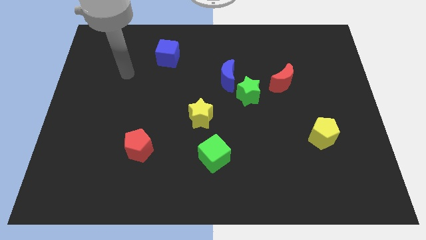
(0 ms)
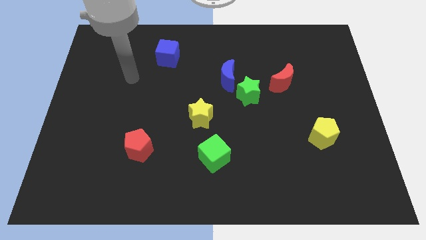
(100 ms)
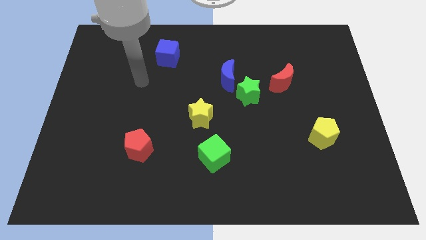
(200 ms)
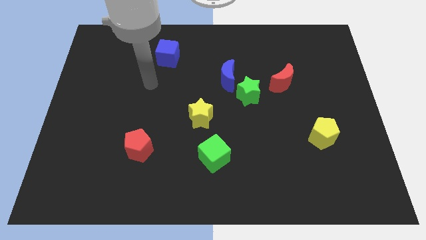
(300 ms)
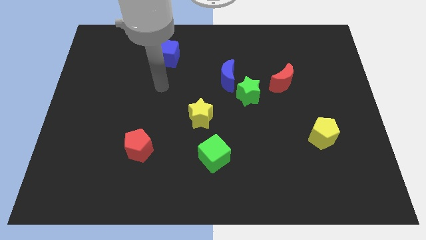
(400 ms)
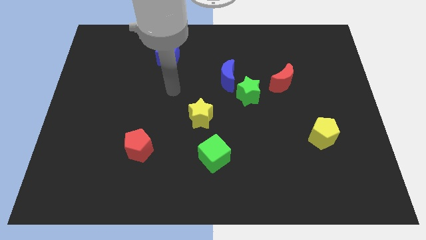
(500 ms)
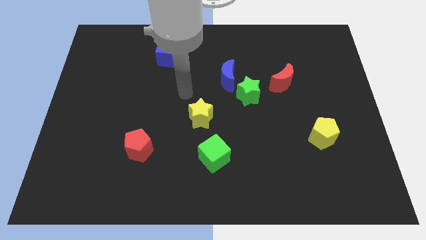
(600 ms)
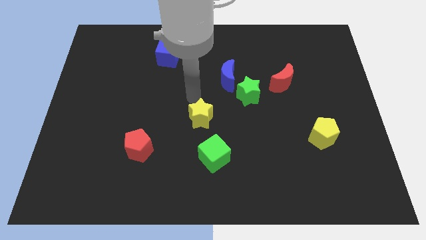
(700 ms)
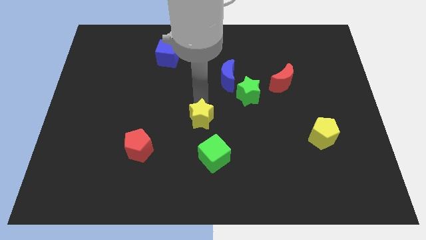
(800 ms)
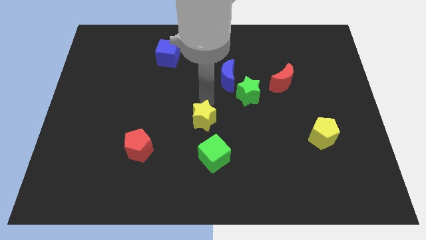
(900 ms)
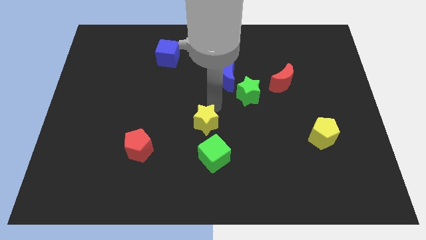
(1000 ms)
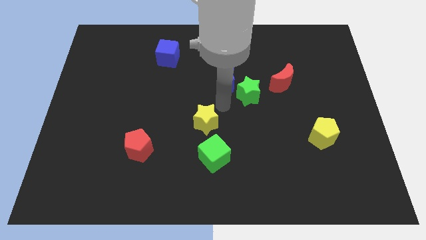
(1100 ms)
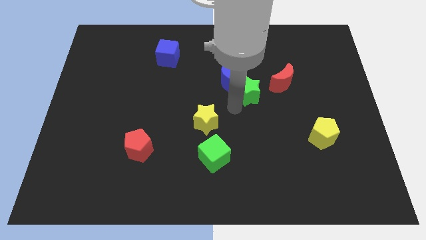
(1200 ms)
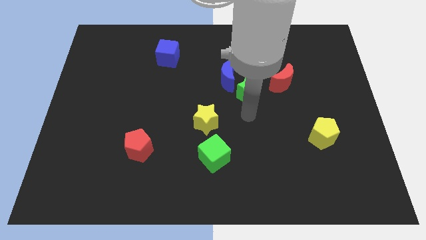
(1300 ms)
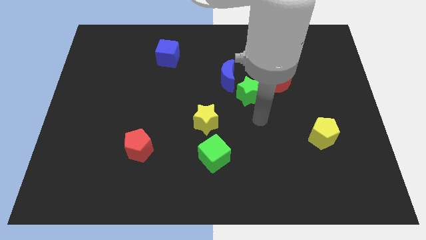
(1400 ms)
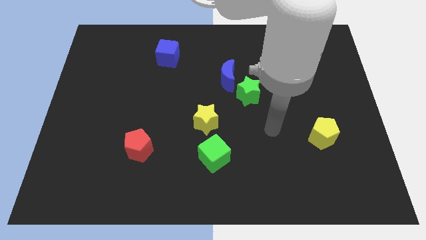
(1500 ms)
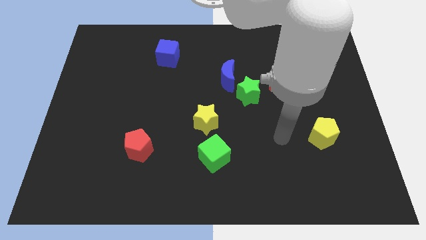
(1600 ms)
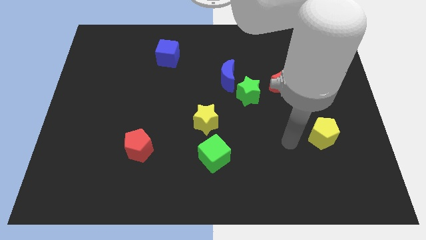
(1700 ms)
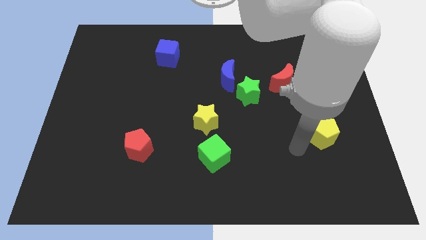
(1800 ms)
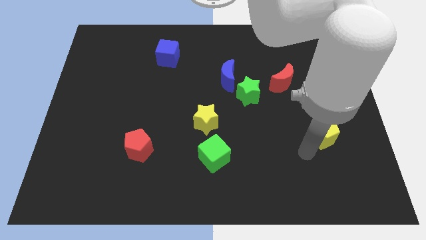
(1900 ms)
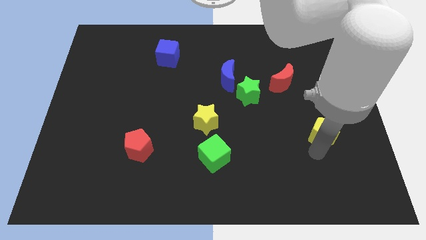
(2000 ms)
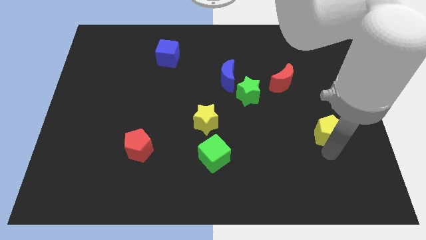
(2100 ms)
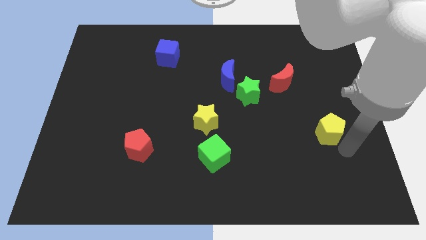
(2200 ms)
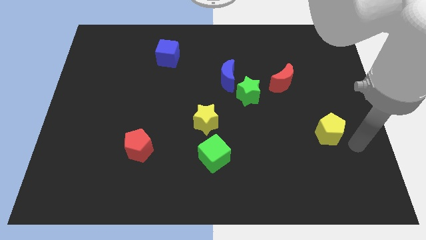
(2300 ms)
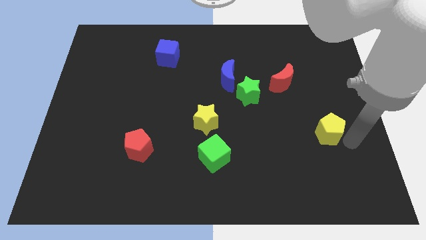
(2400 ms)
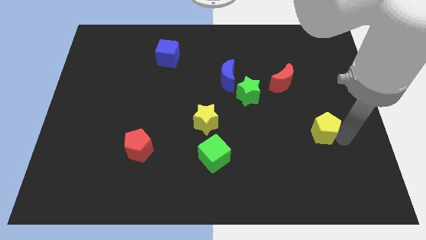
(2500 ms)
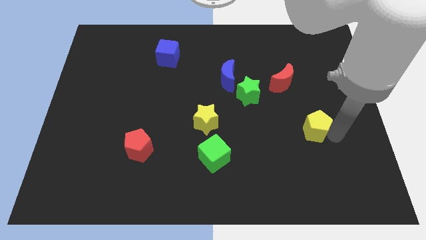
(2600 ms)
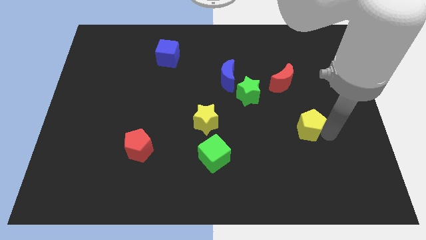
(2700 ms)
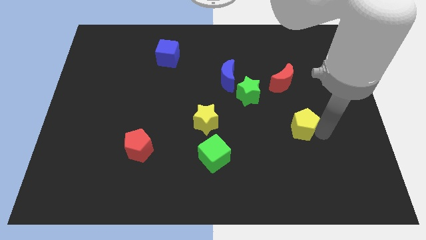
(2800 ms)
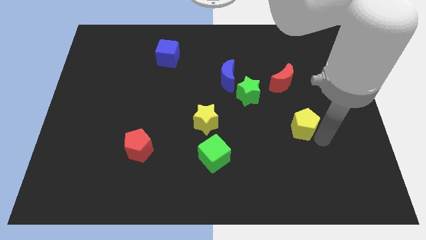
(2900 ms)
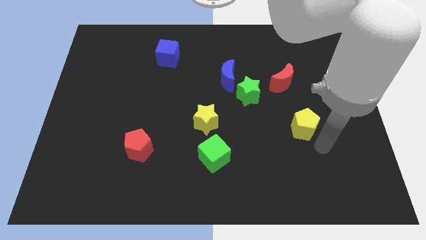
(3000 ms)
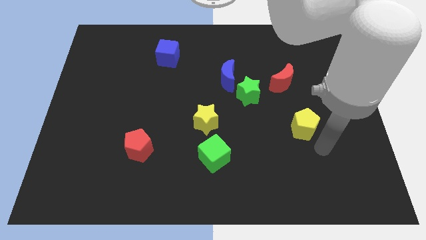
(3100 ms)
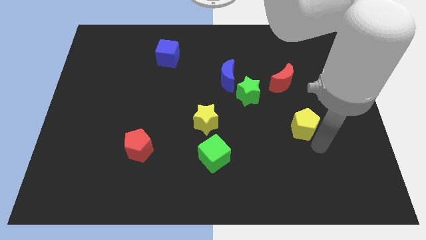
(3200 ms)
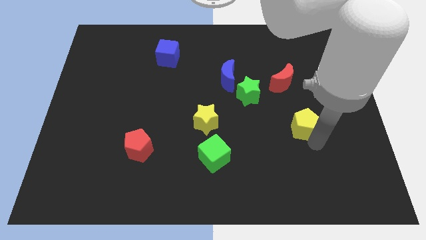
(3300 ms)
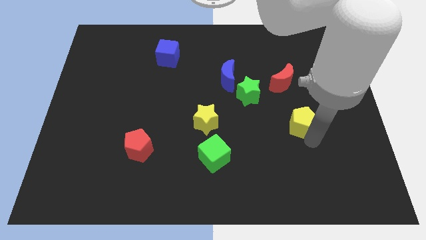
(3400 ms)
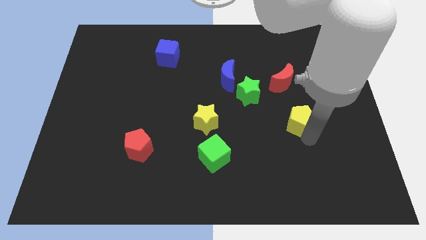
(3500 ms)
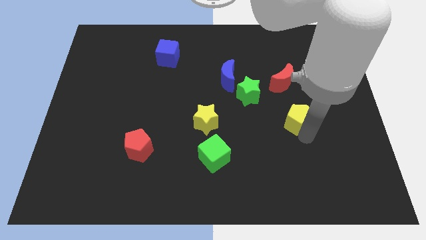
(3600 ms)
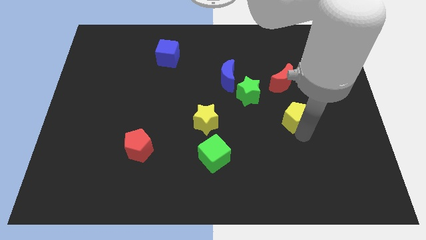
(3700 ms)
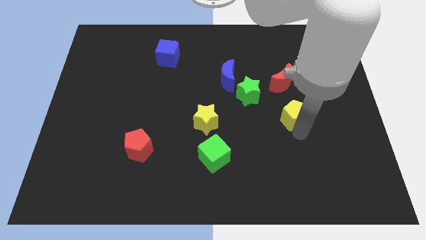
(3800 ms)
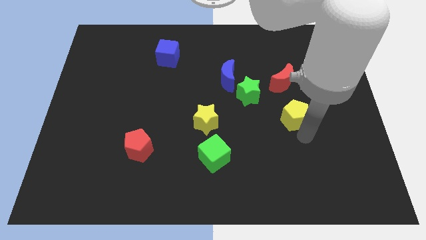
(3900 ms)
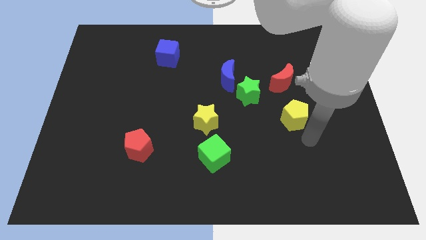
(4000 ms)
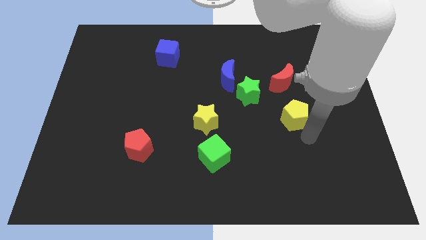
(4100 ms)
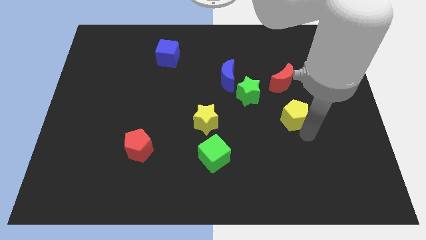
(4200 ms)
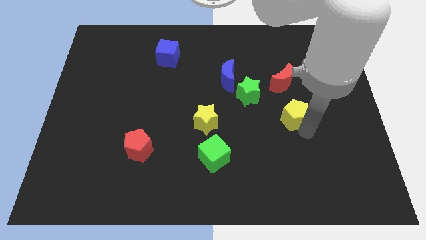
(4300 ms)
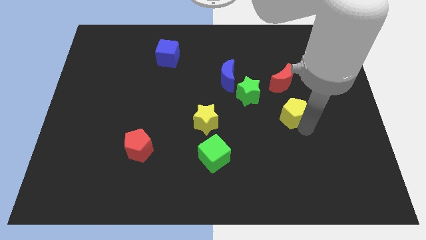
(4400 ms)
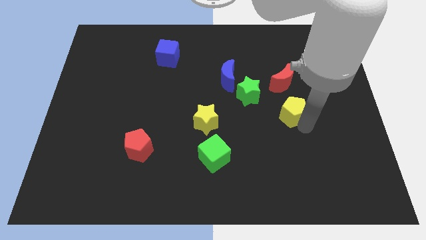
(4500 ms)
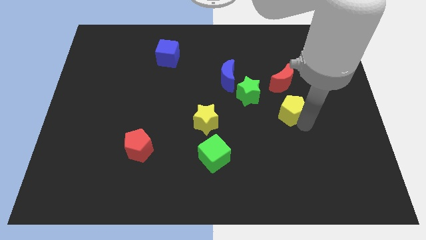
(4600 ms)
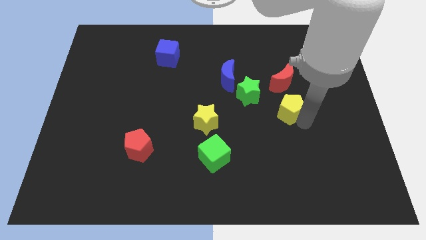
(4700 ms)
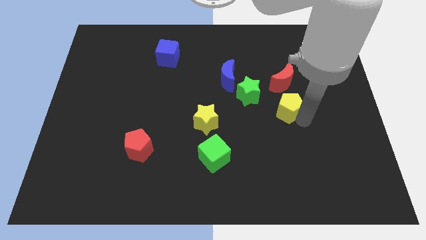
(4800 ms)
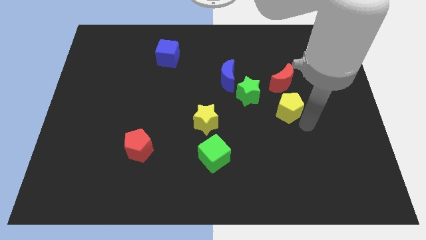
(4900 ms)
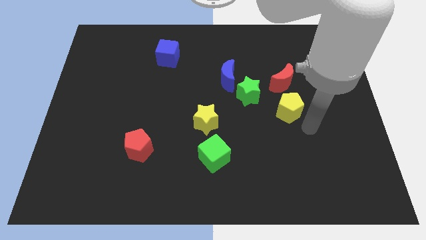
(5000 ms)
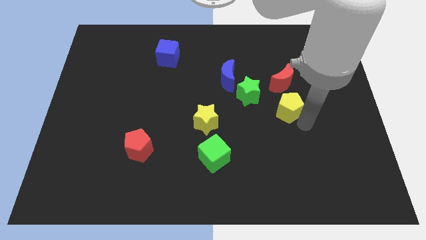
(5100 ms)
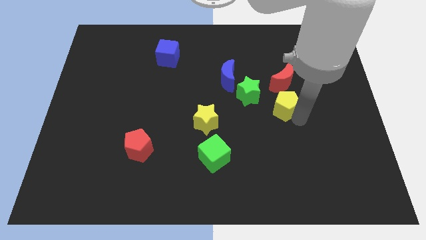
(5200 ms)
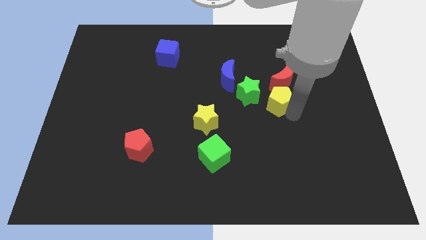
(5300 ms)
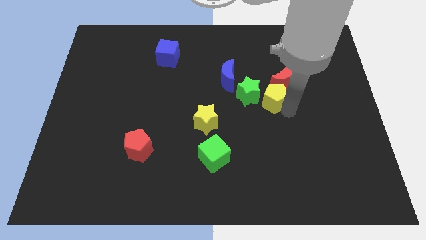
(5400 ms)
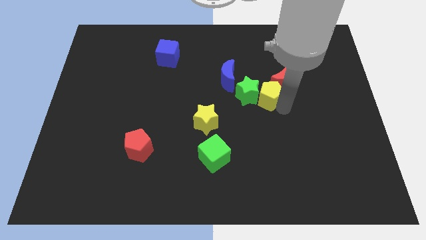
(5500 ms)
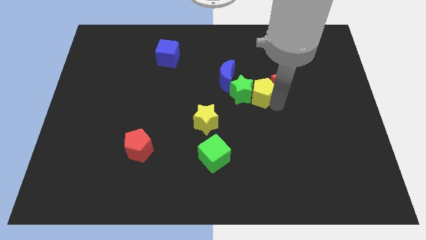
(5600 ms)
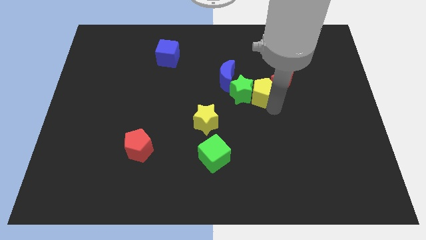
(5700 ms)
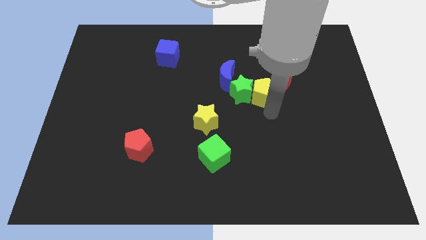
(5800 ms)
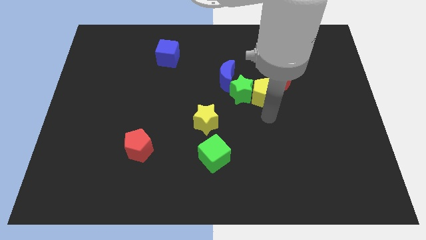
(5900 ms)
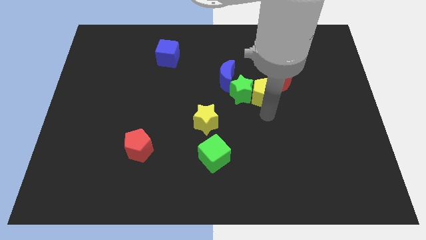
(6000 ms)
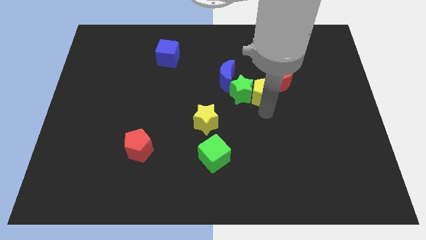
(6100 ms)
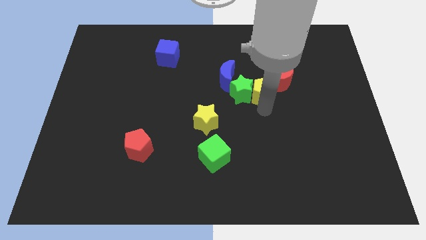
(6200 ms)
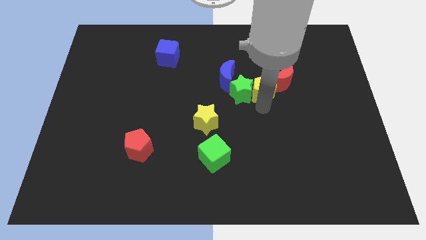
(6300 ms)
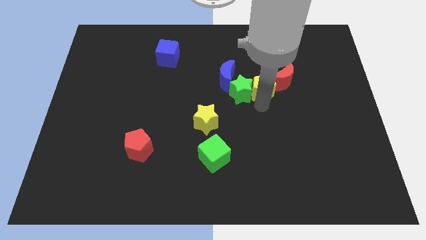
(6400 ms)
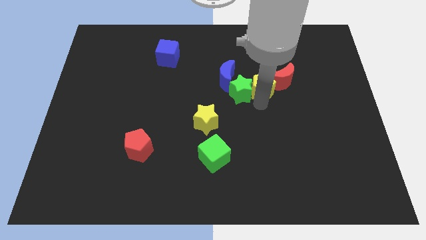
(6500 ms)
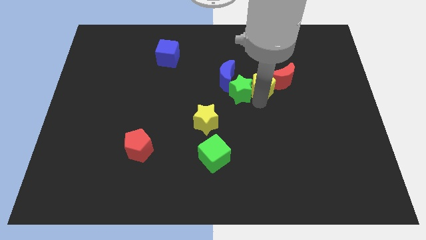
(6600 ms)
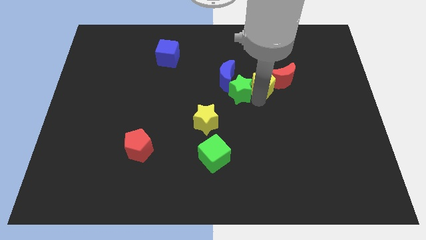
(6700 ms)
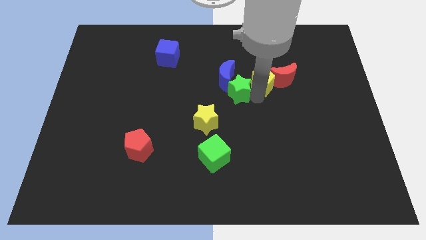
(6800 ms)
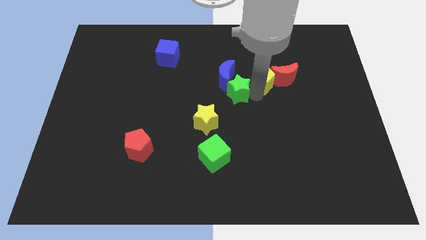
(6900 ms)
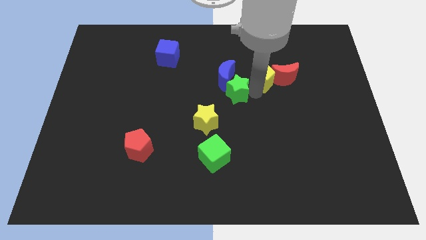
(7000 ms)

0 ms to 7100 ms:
push the yellow pentagon diagonally up and left

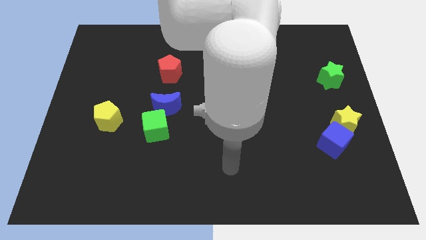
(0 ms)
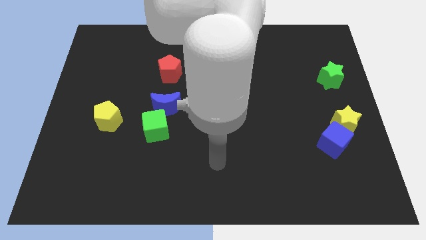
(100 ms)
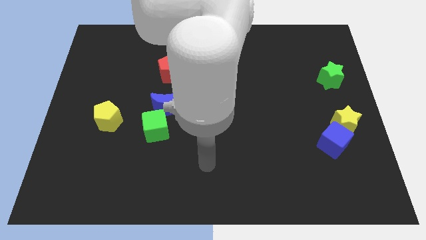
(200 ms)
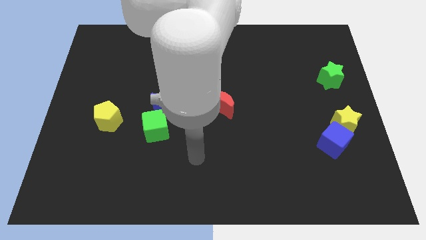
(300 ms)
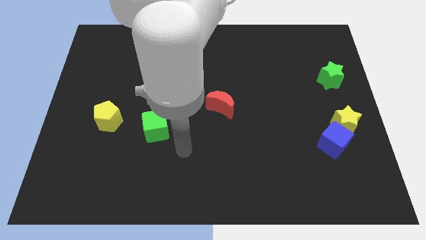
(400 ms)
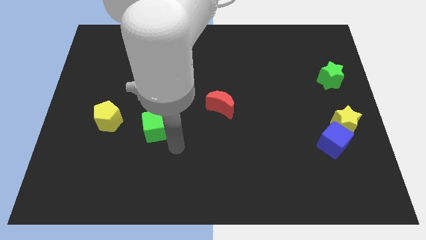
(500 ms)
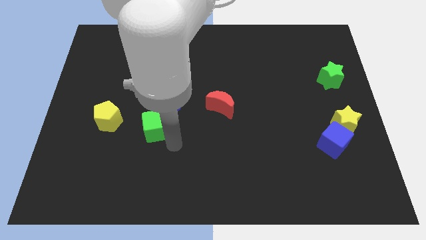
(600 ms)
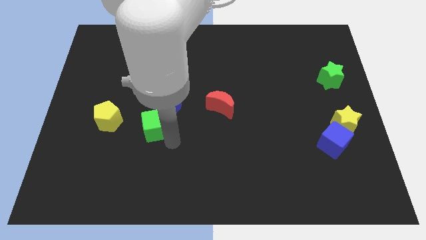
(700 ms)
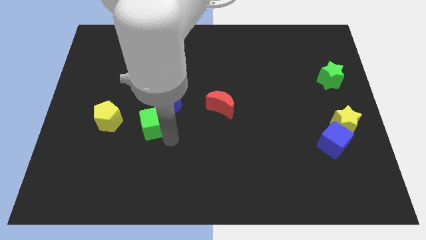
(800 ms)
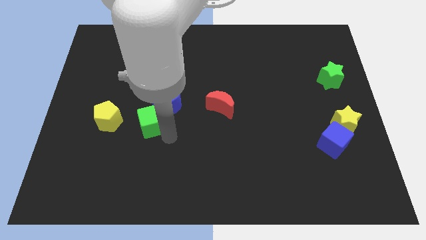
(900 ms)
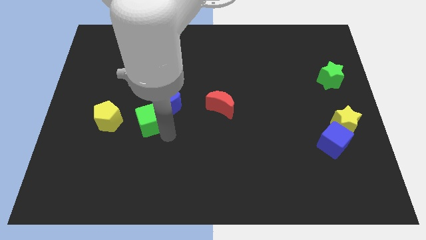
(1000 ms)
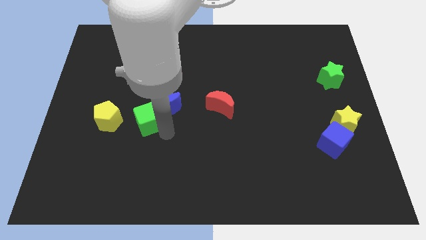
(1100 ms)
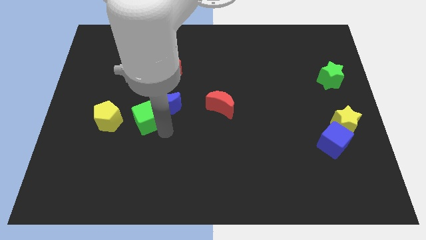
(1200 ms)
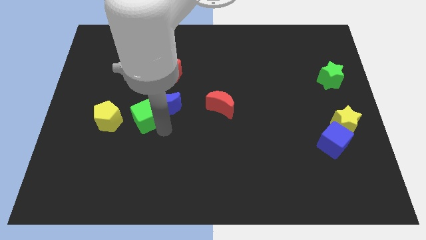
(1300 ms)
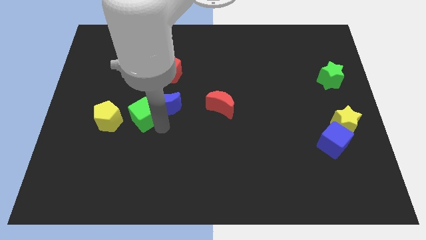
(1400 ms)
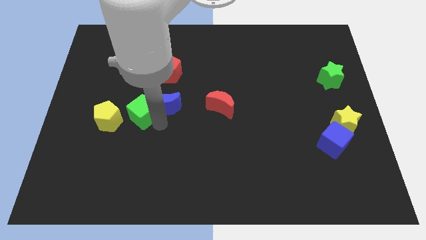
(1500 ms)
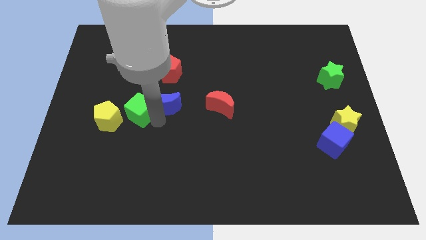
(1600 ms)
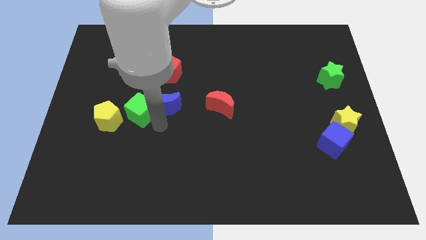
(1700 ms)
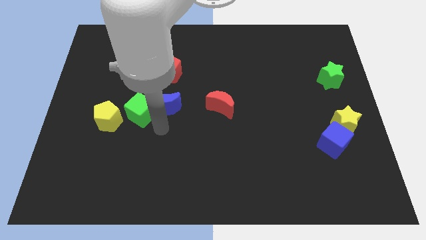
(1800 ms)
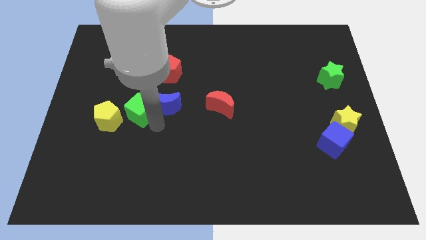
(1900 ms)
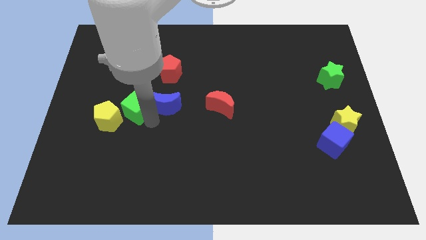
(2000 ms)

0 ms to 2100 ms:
push the green cube diagonally upwards and left a little
